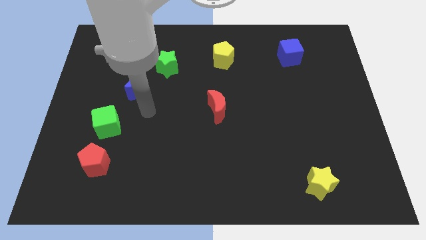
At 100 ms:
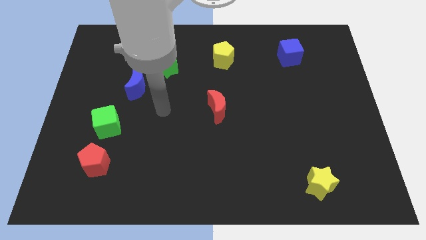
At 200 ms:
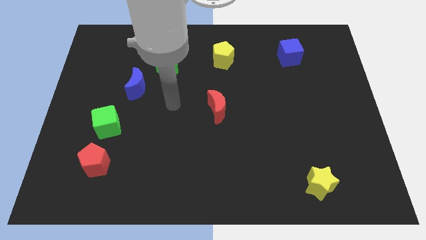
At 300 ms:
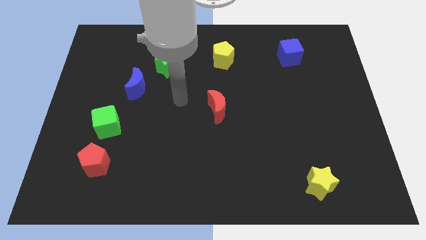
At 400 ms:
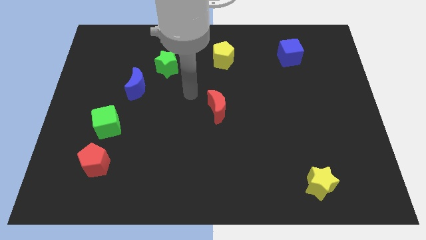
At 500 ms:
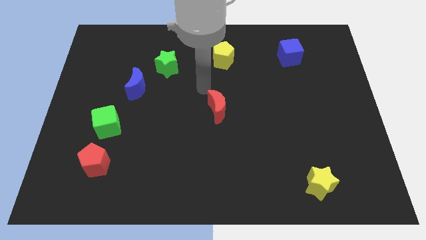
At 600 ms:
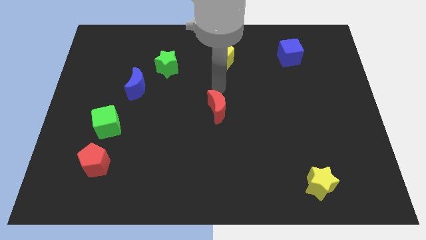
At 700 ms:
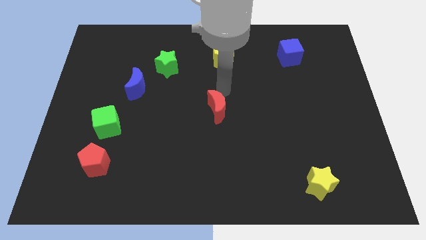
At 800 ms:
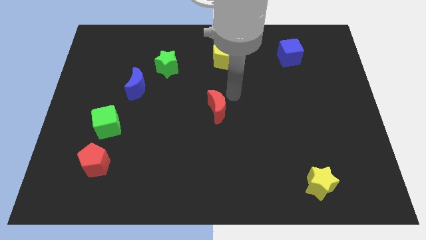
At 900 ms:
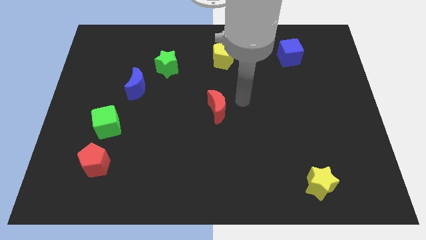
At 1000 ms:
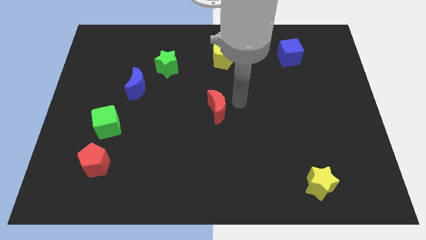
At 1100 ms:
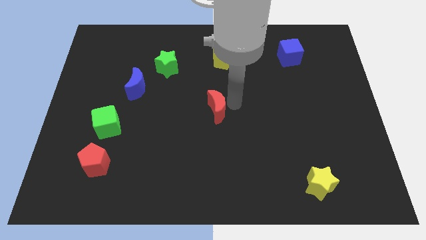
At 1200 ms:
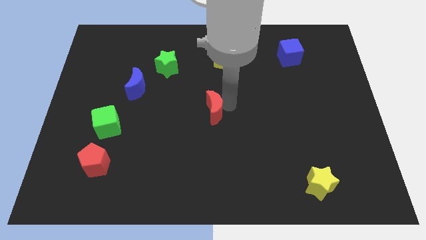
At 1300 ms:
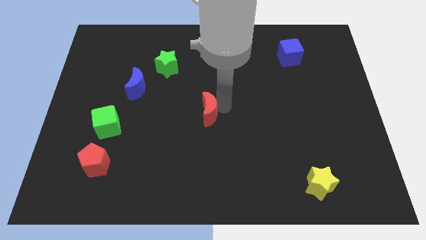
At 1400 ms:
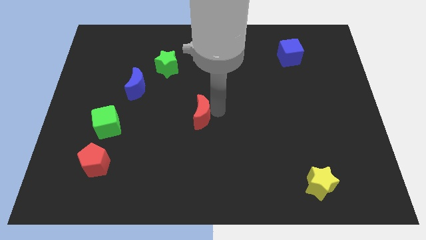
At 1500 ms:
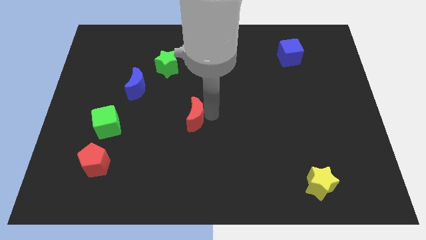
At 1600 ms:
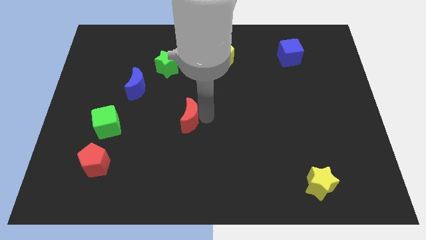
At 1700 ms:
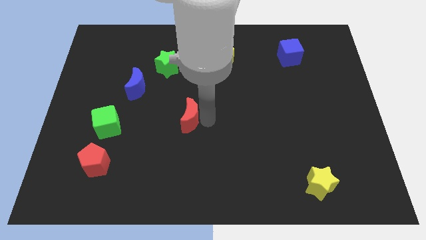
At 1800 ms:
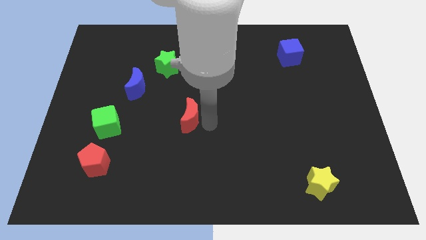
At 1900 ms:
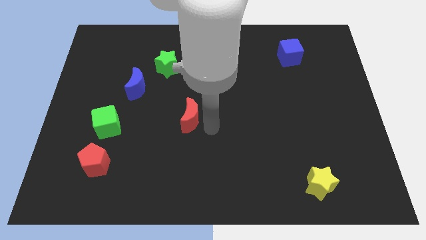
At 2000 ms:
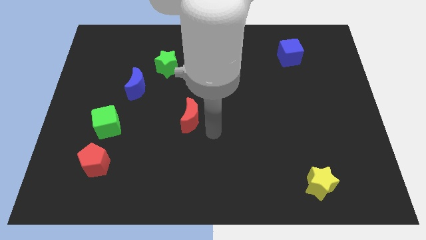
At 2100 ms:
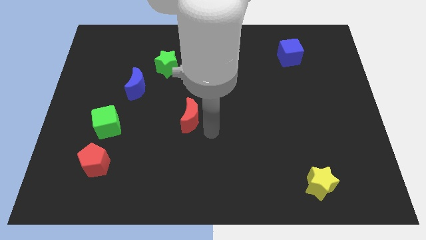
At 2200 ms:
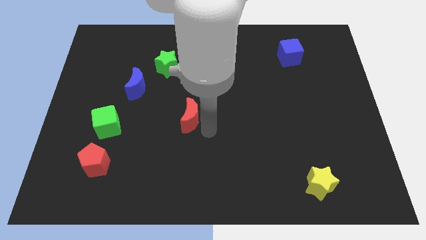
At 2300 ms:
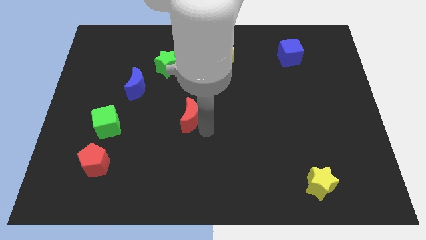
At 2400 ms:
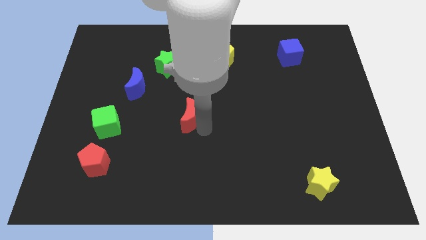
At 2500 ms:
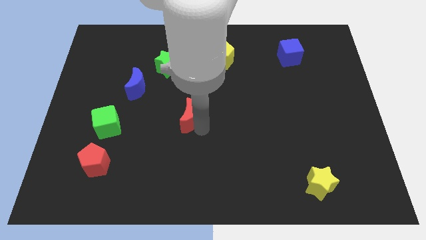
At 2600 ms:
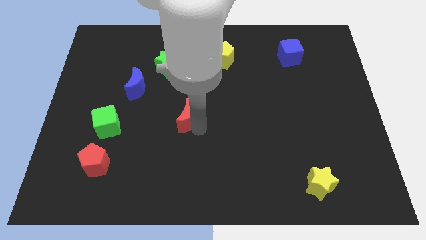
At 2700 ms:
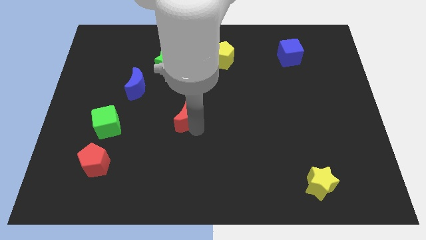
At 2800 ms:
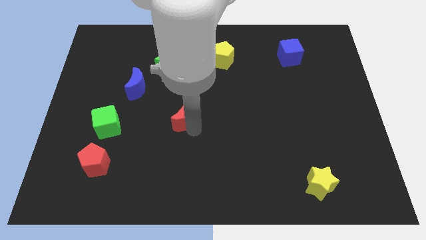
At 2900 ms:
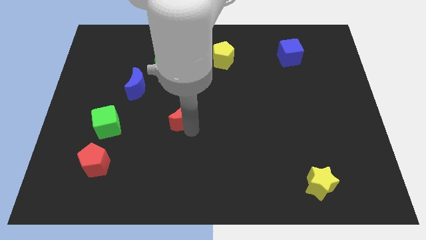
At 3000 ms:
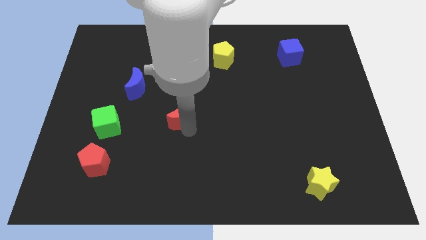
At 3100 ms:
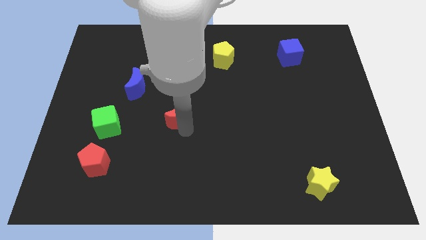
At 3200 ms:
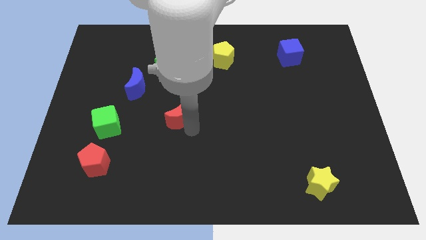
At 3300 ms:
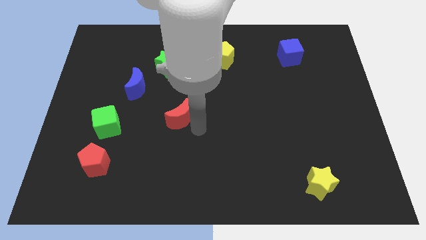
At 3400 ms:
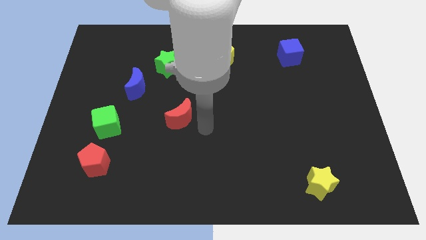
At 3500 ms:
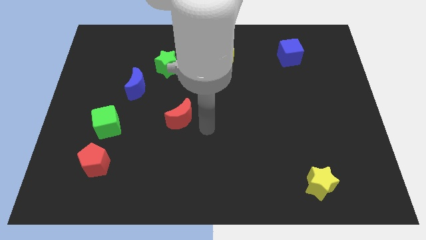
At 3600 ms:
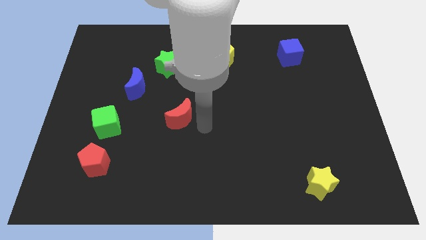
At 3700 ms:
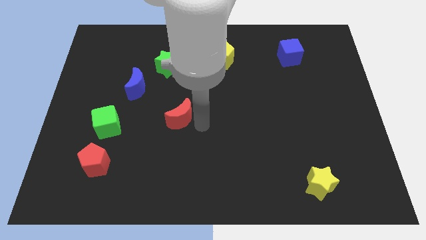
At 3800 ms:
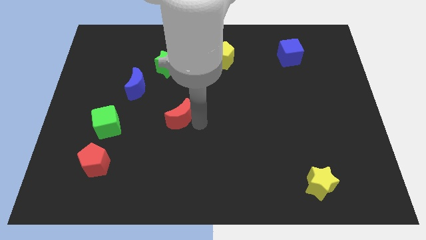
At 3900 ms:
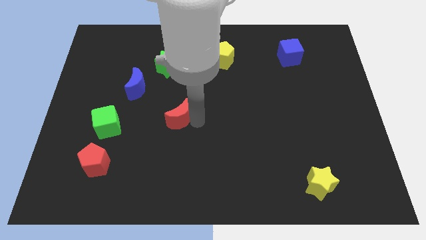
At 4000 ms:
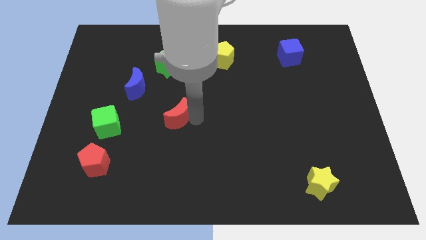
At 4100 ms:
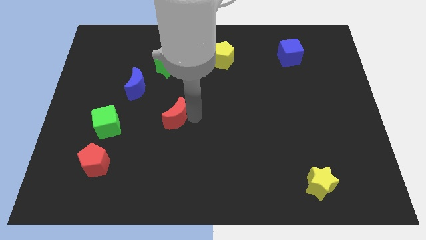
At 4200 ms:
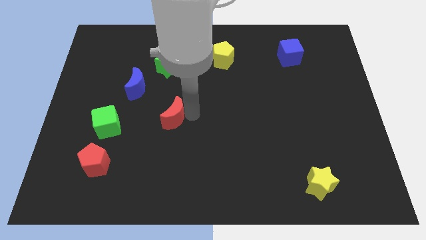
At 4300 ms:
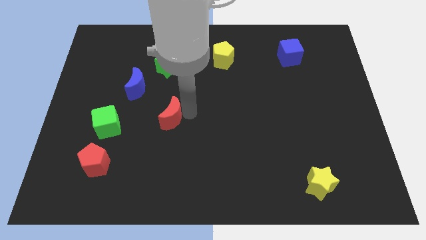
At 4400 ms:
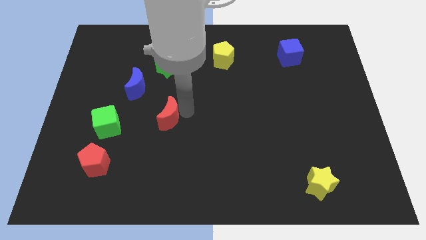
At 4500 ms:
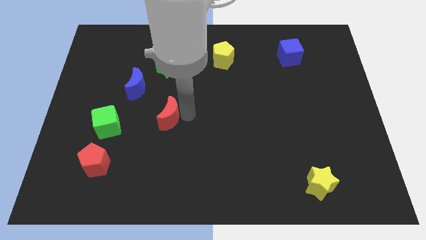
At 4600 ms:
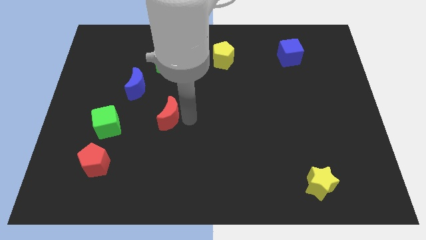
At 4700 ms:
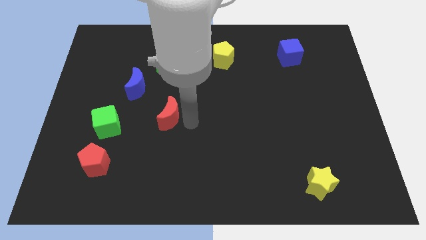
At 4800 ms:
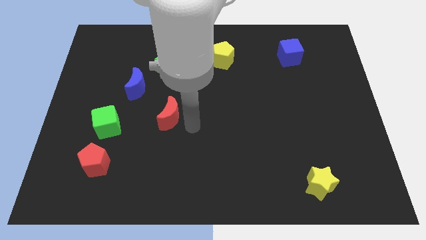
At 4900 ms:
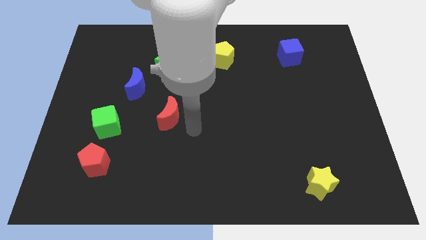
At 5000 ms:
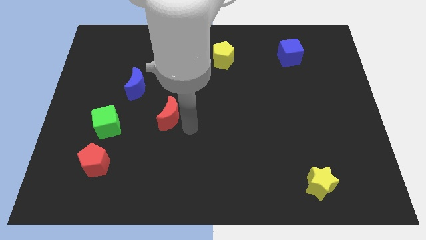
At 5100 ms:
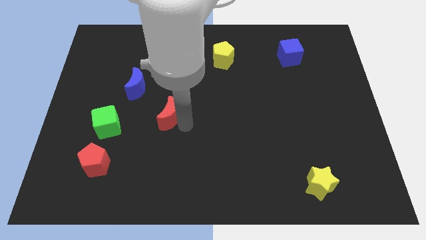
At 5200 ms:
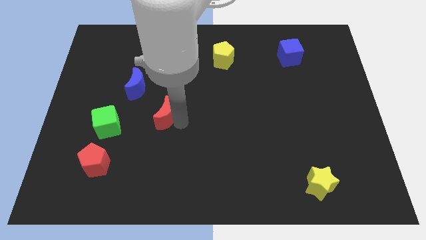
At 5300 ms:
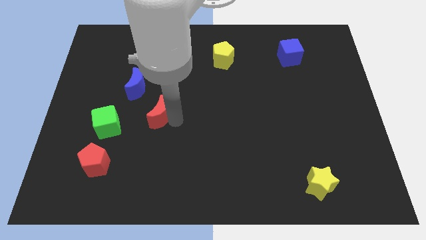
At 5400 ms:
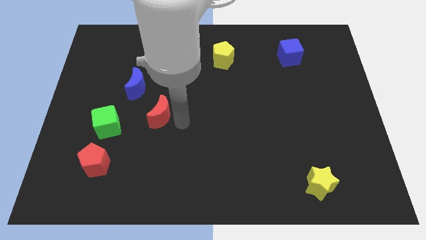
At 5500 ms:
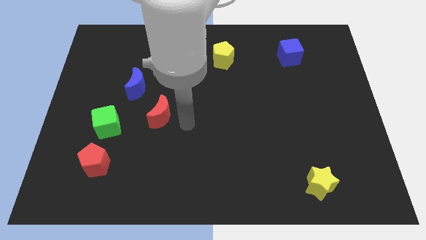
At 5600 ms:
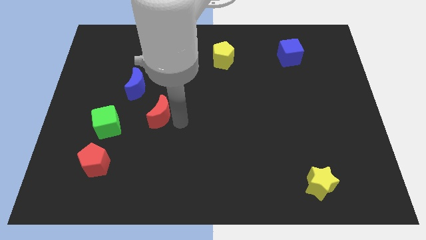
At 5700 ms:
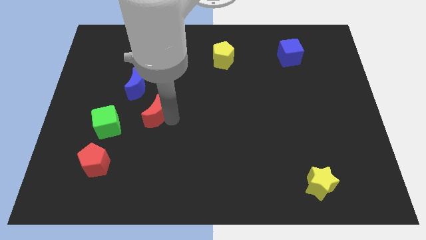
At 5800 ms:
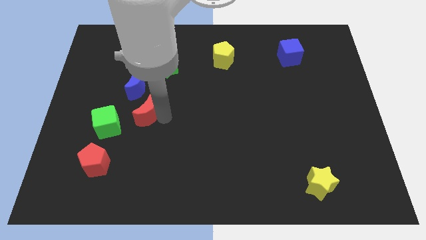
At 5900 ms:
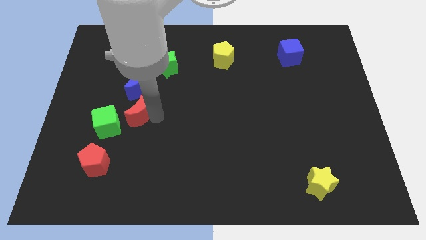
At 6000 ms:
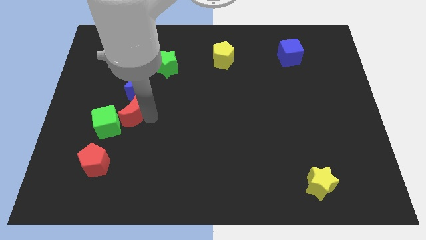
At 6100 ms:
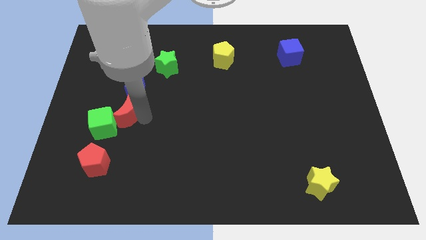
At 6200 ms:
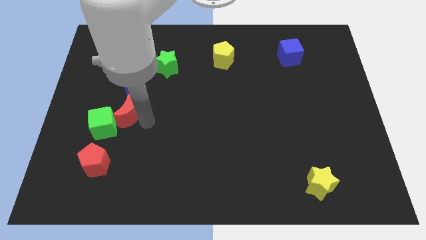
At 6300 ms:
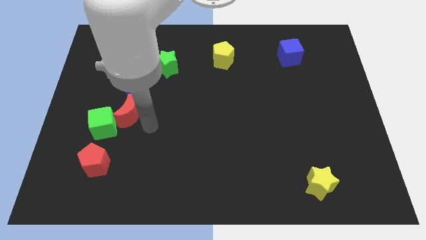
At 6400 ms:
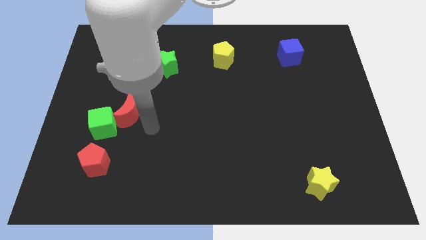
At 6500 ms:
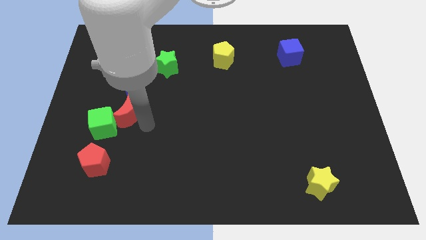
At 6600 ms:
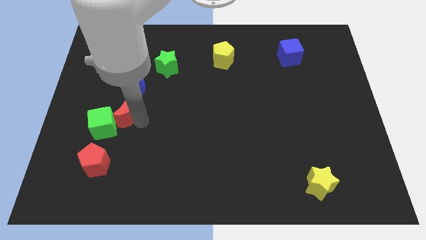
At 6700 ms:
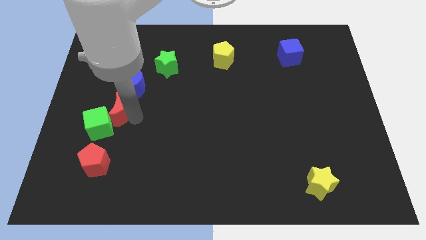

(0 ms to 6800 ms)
push the red moon to the bottom left side of the blue moon
